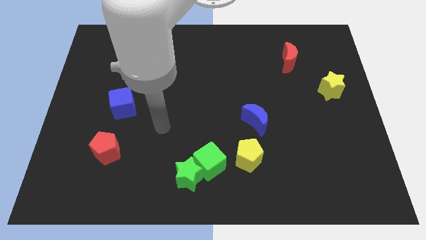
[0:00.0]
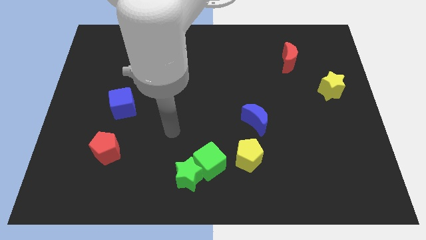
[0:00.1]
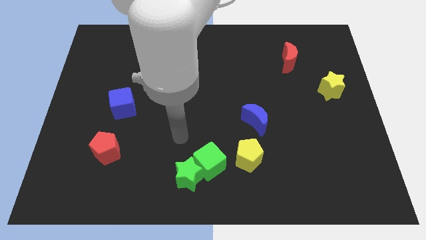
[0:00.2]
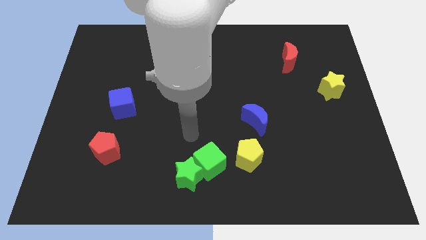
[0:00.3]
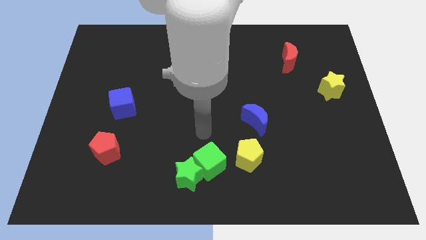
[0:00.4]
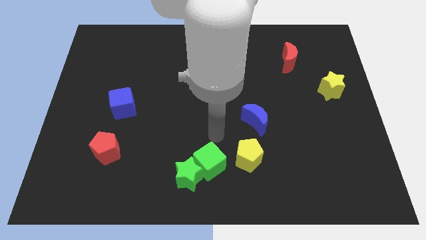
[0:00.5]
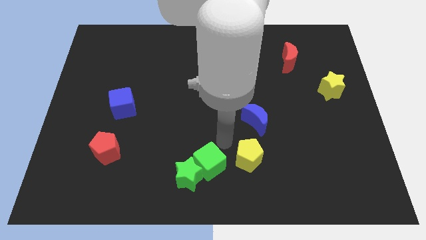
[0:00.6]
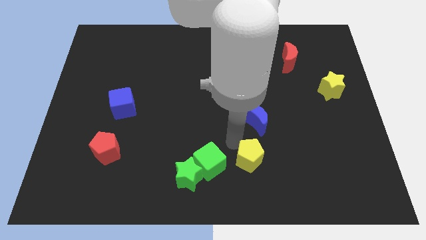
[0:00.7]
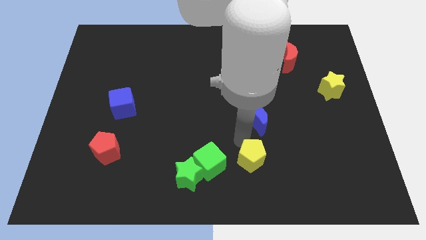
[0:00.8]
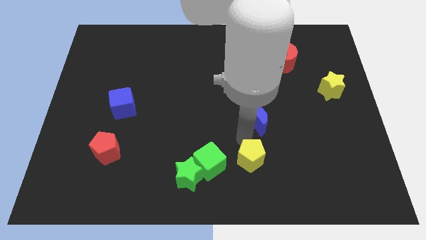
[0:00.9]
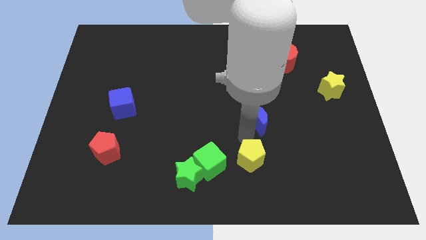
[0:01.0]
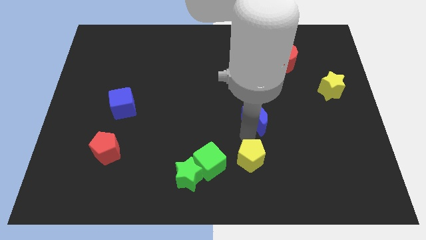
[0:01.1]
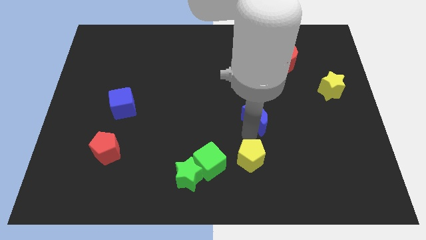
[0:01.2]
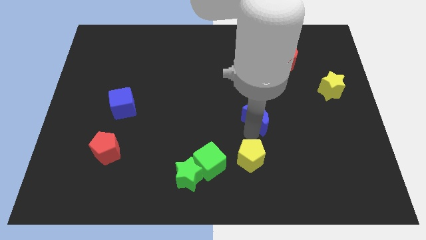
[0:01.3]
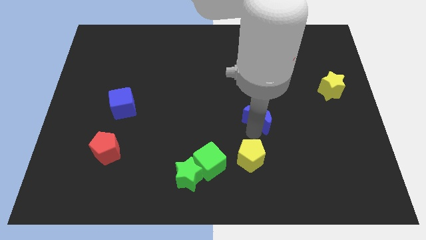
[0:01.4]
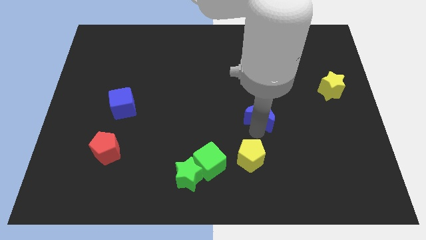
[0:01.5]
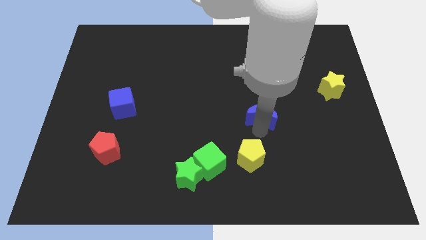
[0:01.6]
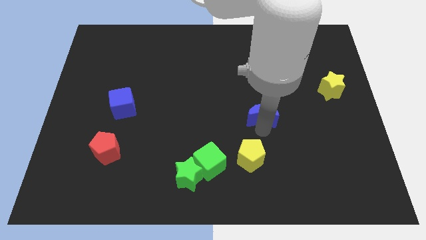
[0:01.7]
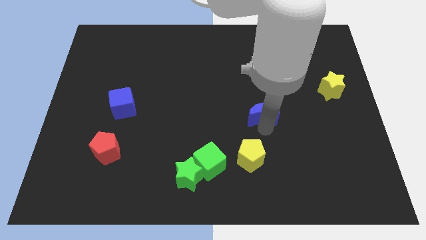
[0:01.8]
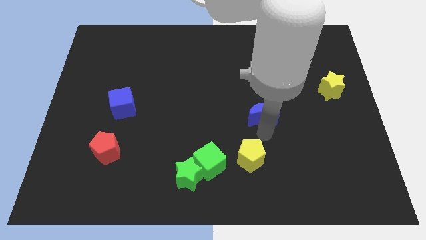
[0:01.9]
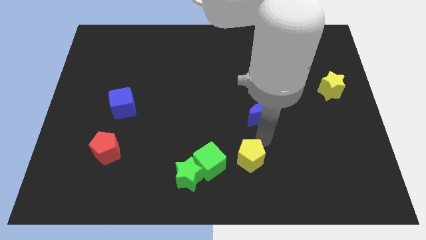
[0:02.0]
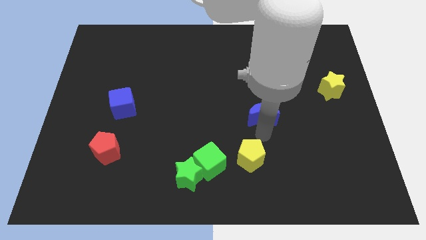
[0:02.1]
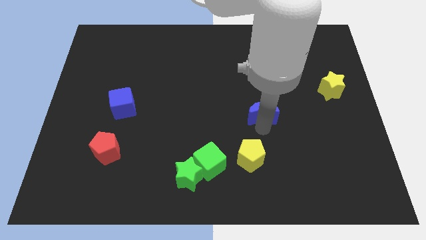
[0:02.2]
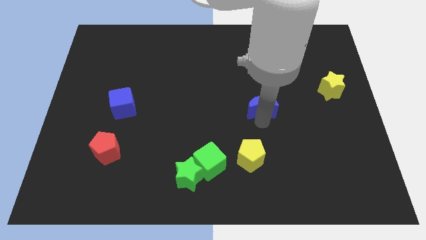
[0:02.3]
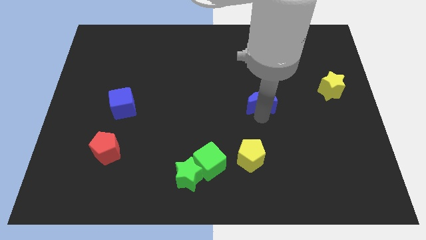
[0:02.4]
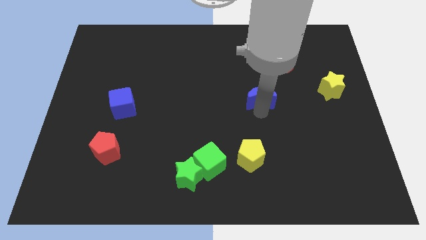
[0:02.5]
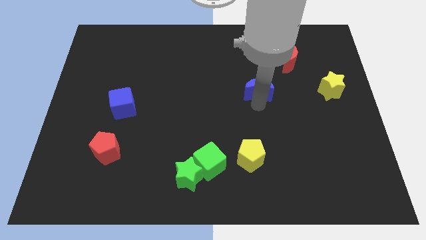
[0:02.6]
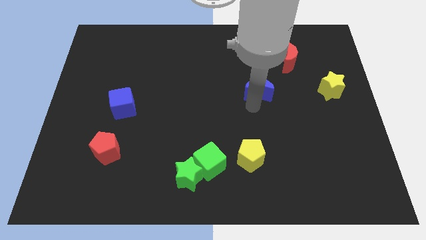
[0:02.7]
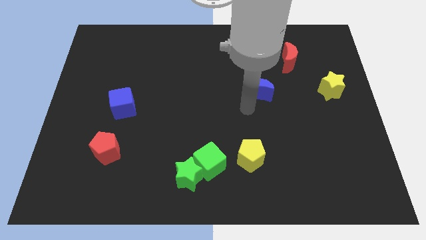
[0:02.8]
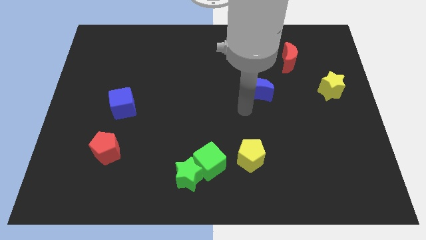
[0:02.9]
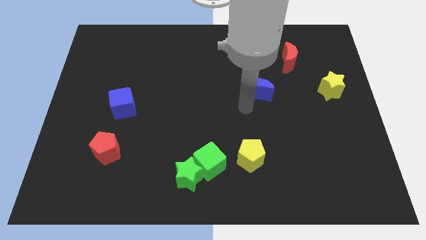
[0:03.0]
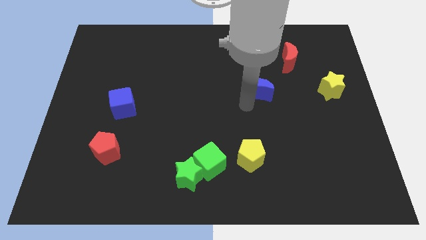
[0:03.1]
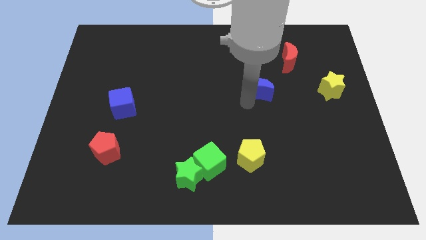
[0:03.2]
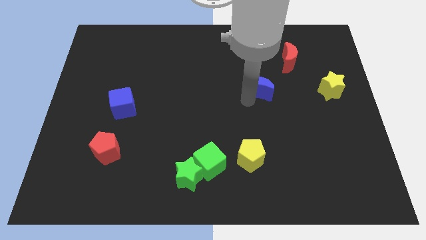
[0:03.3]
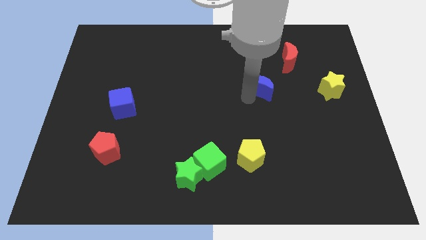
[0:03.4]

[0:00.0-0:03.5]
move the blue moon to the bottom left of the red moon

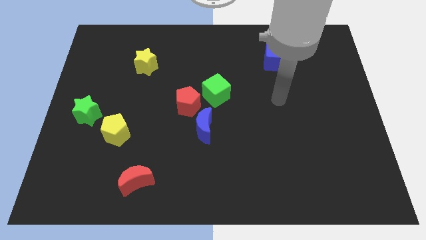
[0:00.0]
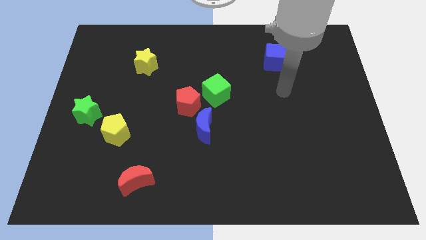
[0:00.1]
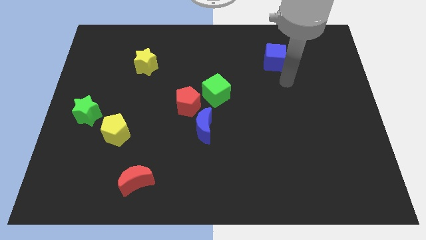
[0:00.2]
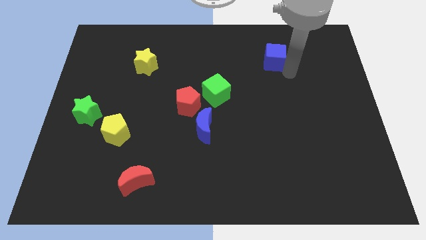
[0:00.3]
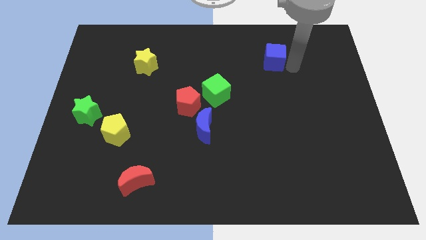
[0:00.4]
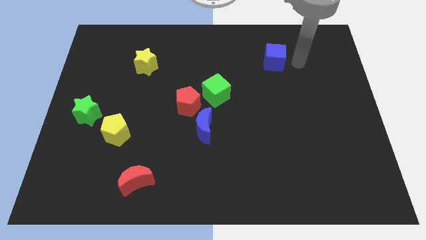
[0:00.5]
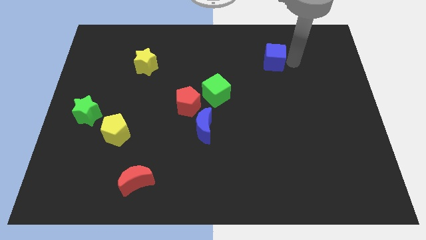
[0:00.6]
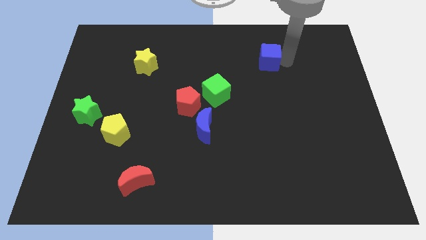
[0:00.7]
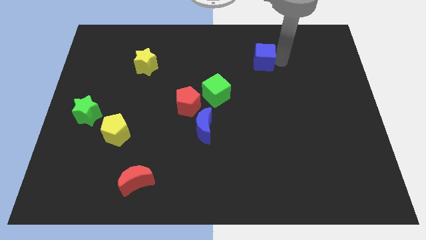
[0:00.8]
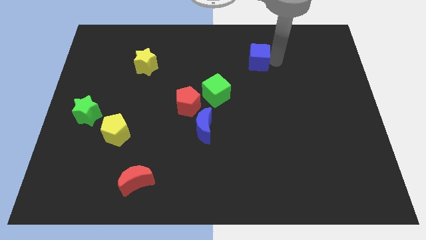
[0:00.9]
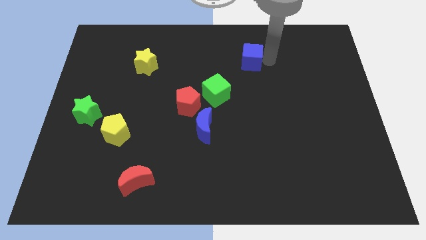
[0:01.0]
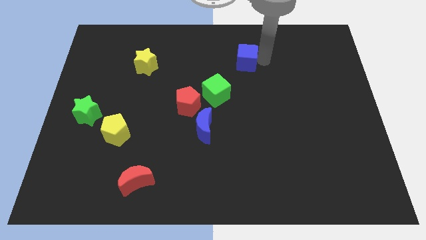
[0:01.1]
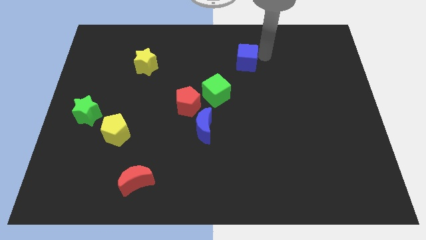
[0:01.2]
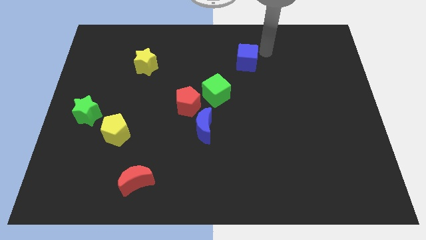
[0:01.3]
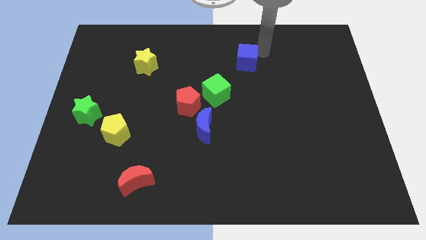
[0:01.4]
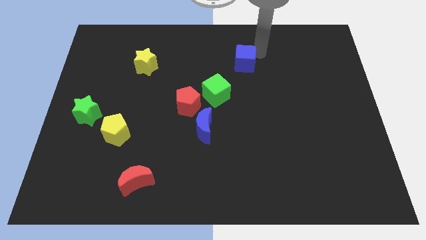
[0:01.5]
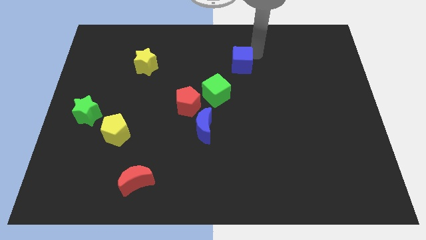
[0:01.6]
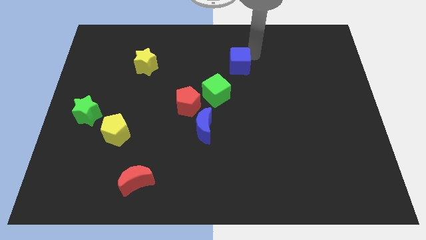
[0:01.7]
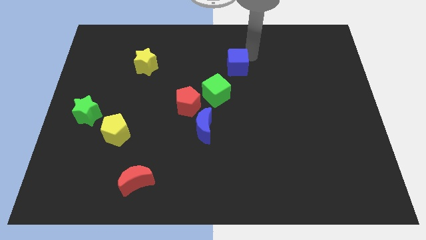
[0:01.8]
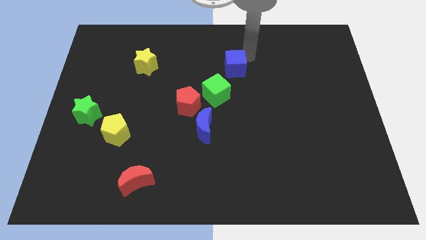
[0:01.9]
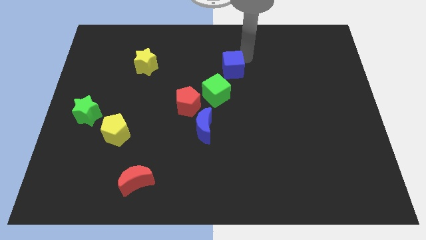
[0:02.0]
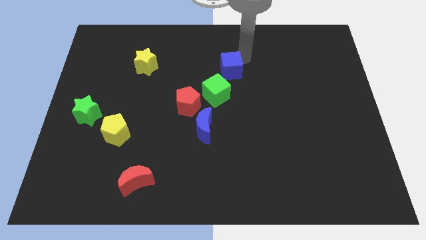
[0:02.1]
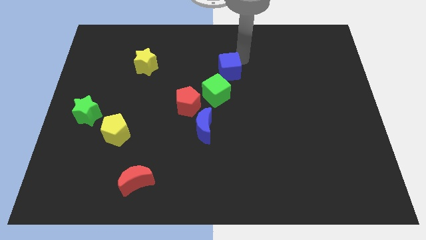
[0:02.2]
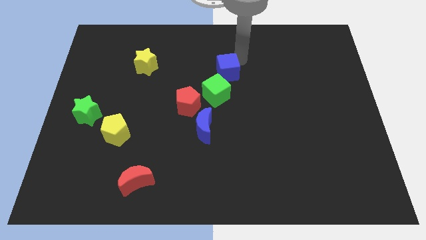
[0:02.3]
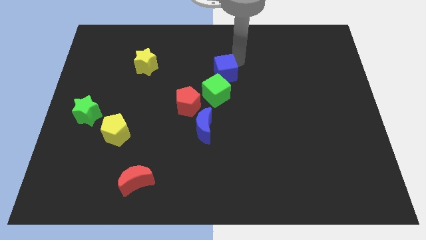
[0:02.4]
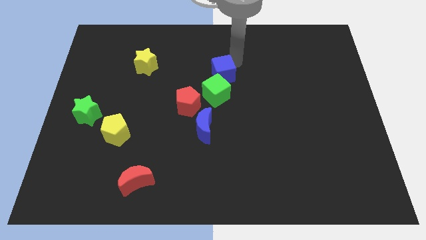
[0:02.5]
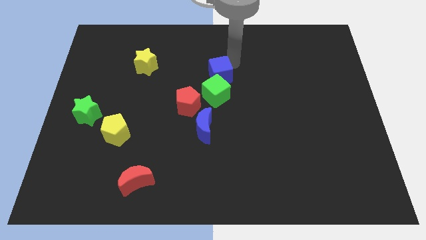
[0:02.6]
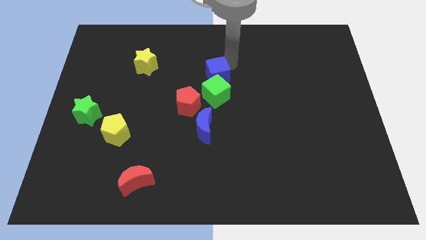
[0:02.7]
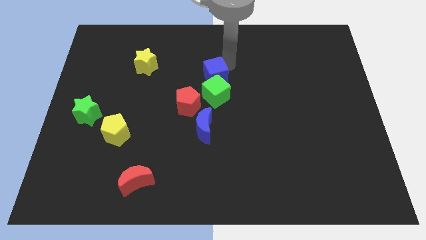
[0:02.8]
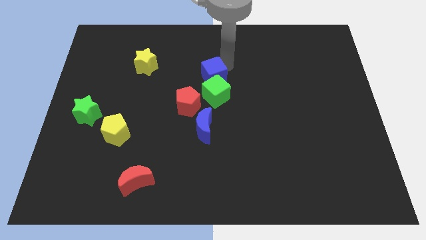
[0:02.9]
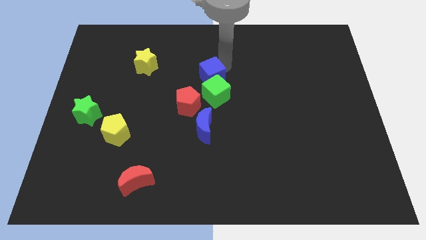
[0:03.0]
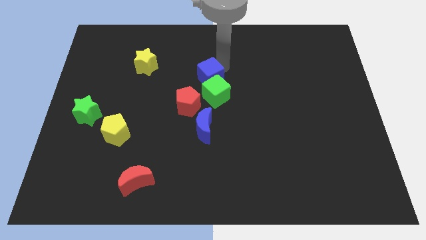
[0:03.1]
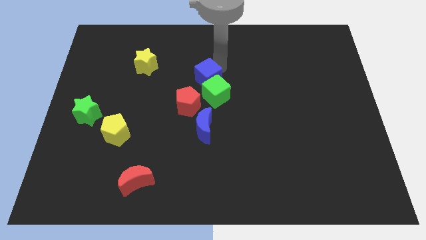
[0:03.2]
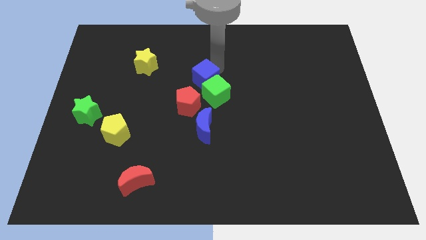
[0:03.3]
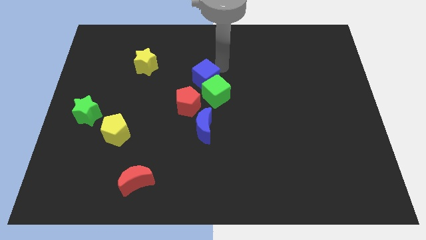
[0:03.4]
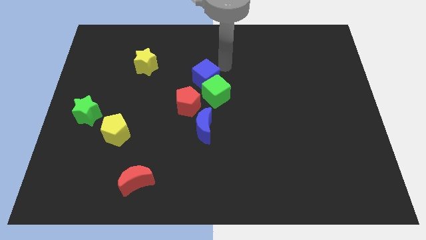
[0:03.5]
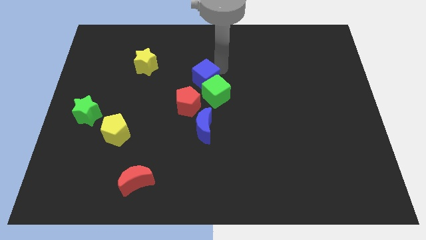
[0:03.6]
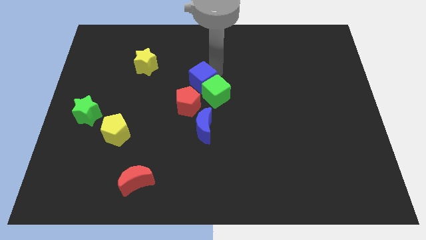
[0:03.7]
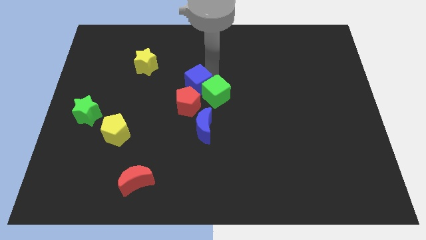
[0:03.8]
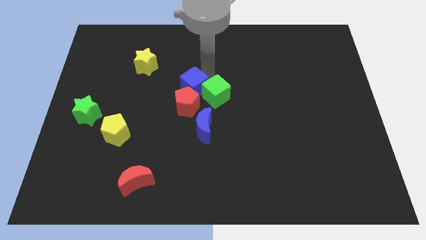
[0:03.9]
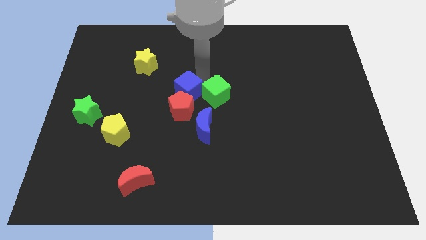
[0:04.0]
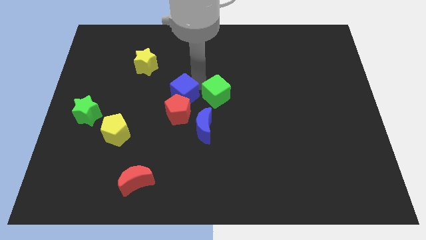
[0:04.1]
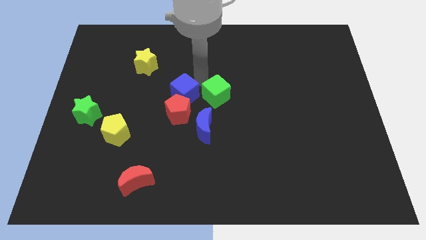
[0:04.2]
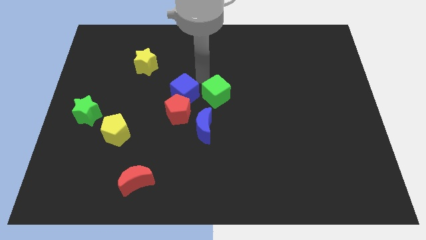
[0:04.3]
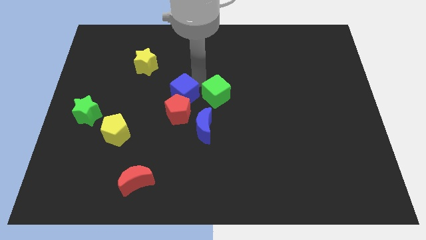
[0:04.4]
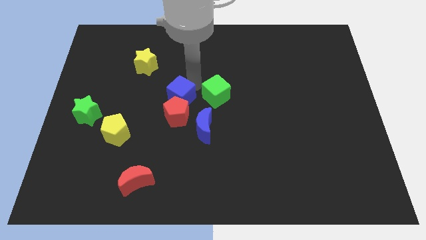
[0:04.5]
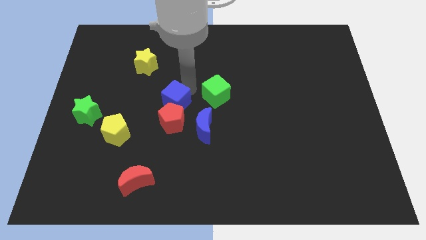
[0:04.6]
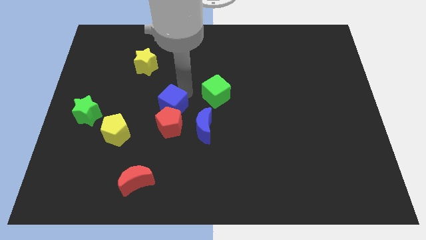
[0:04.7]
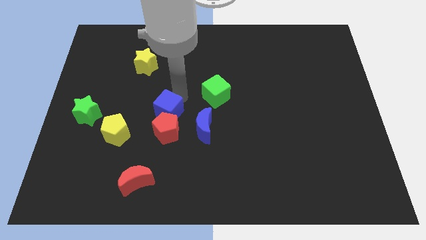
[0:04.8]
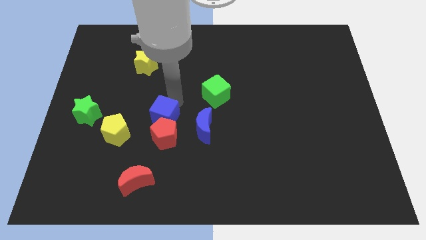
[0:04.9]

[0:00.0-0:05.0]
move the blue cube left of the blue moon
